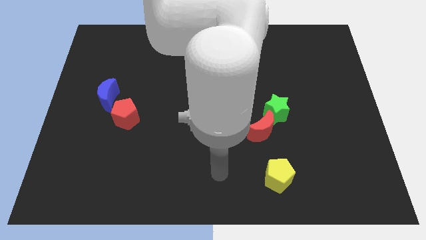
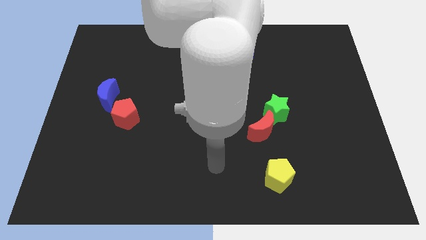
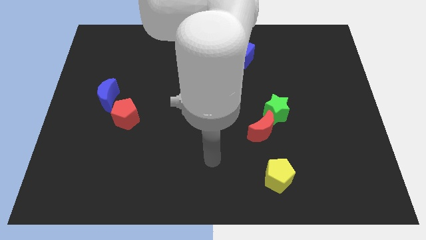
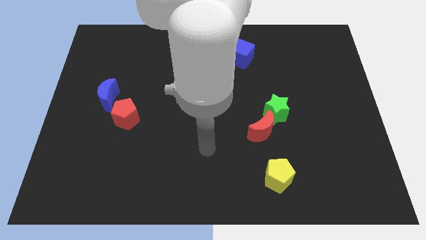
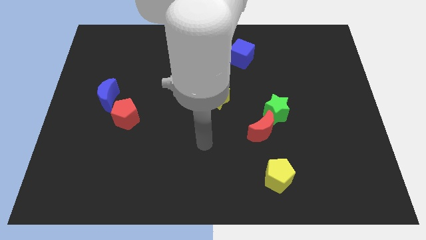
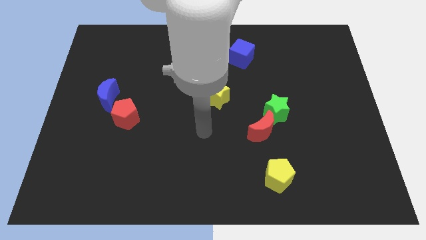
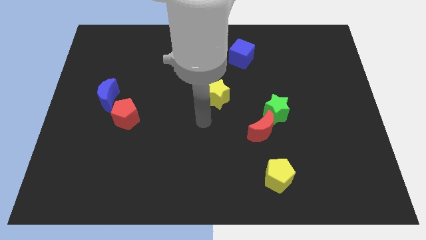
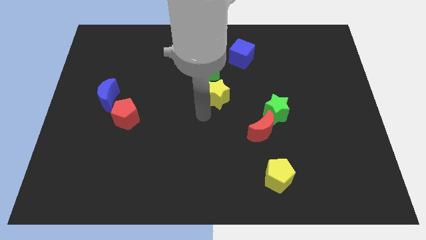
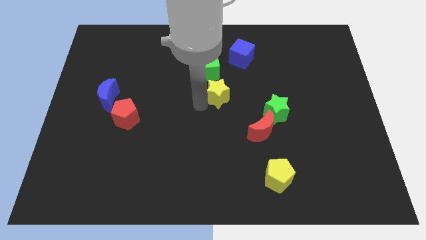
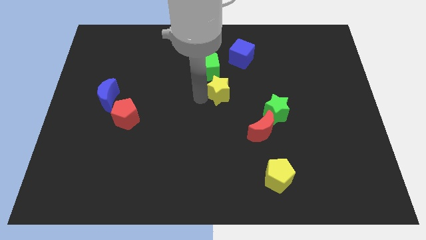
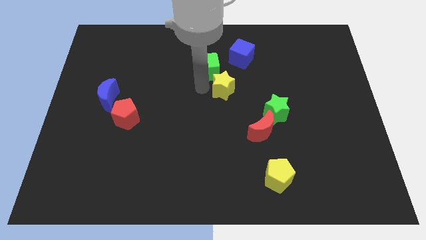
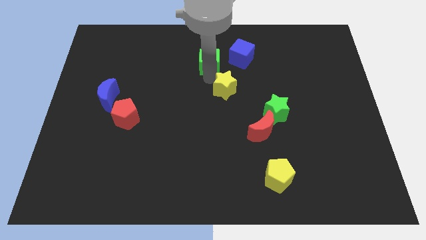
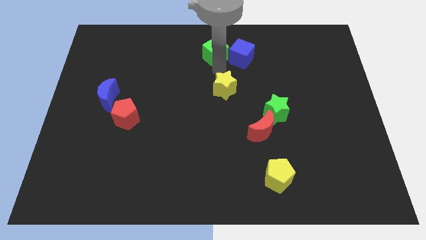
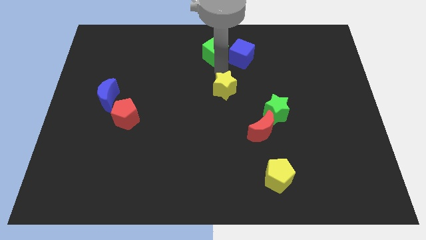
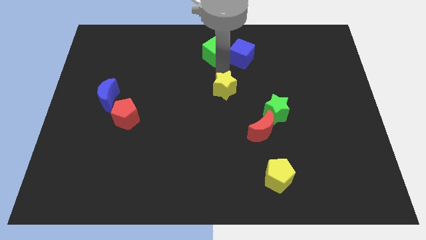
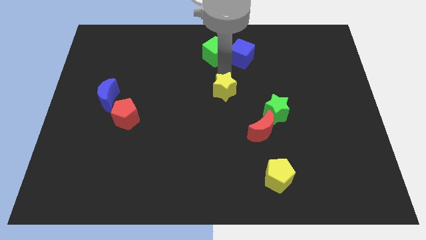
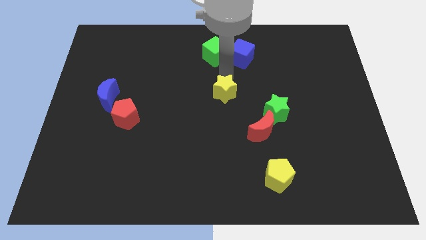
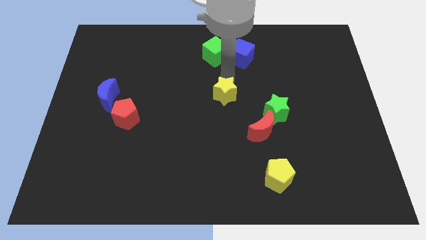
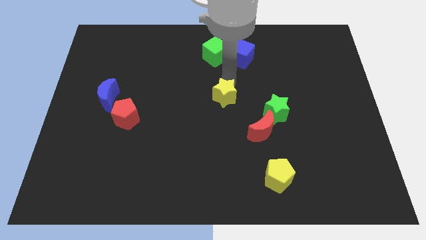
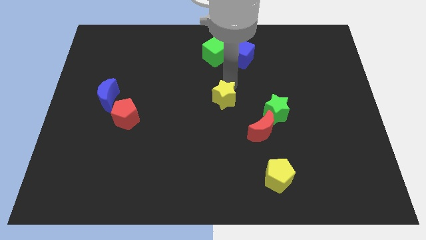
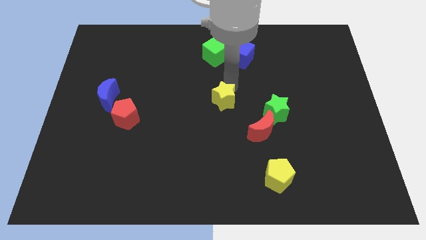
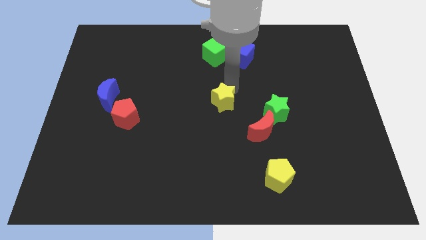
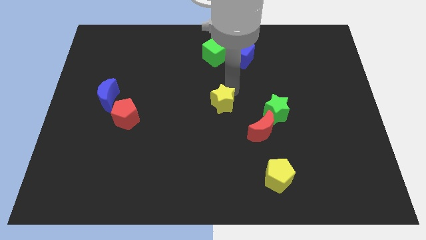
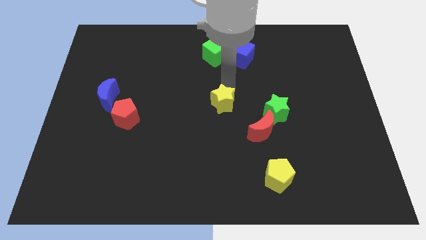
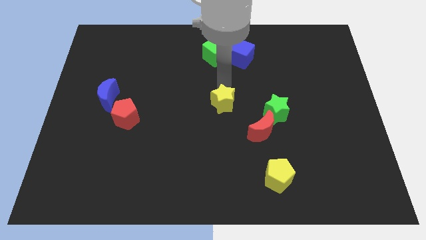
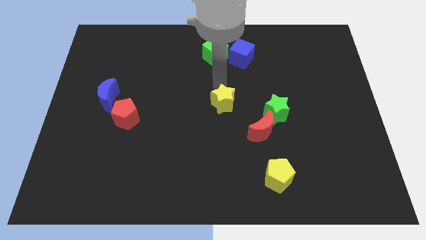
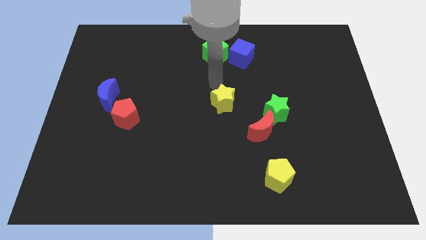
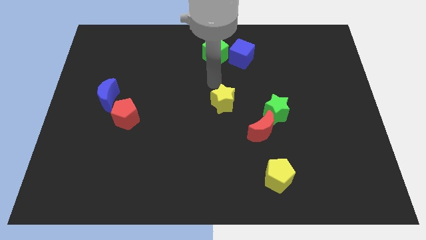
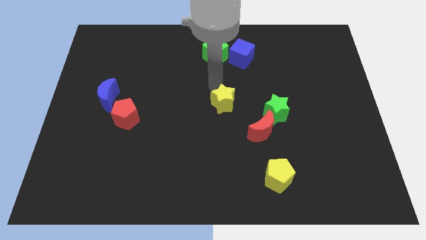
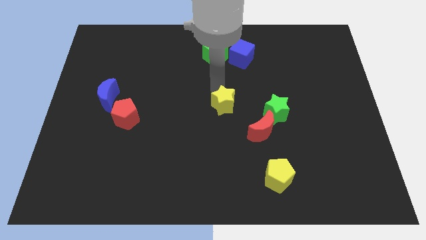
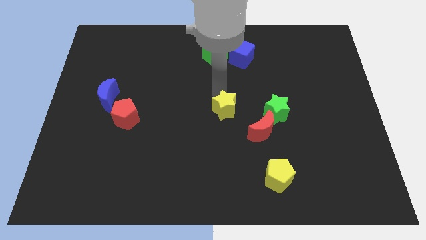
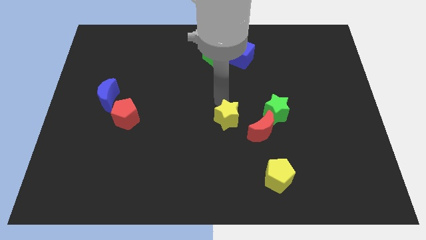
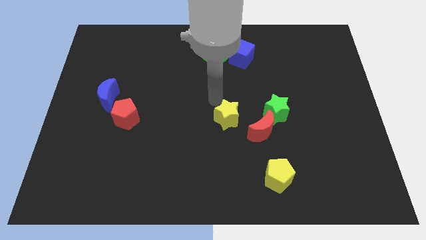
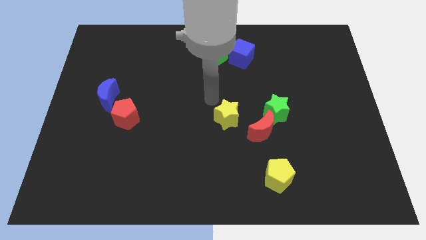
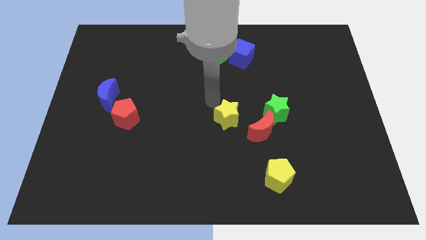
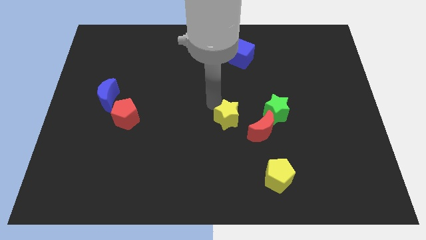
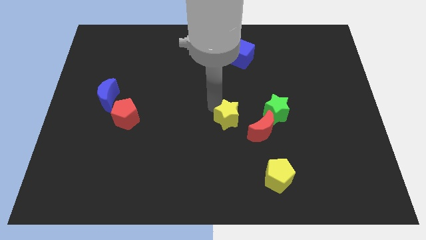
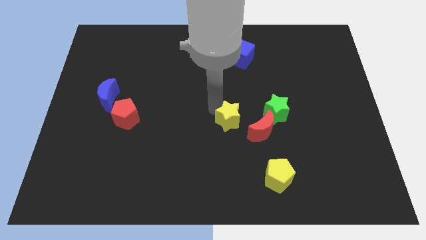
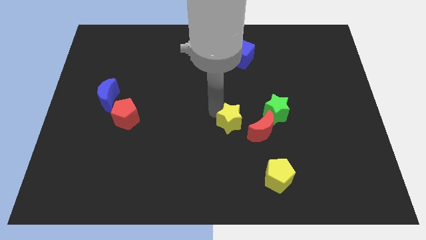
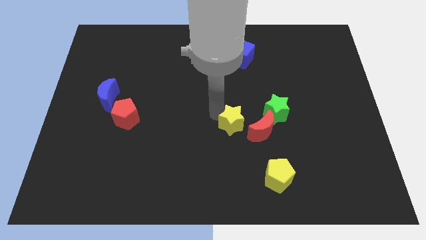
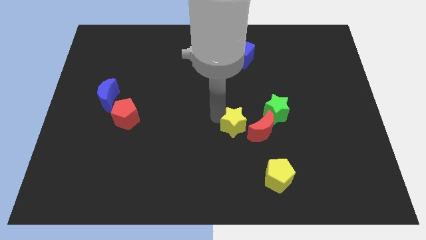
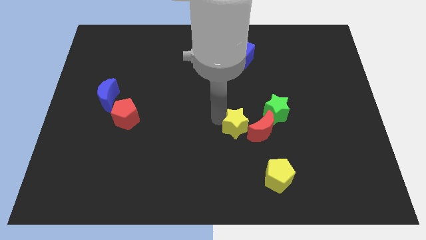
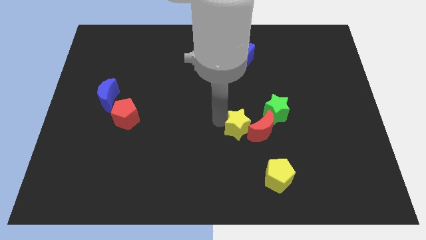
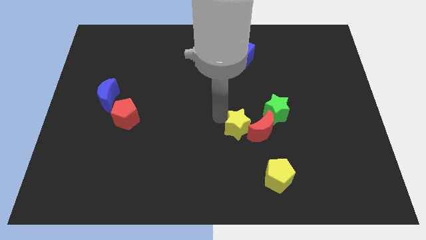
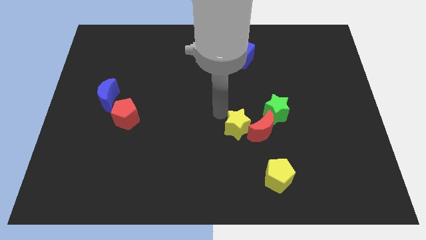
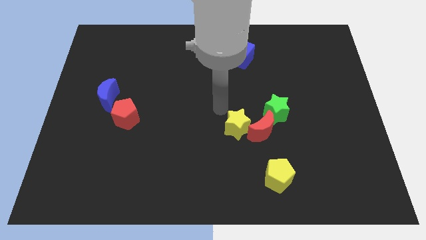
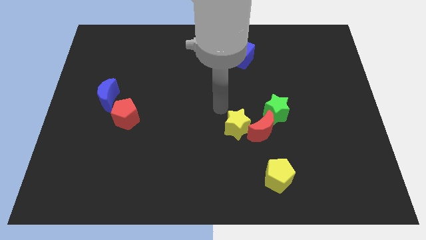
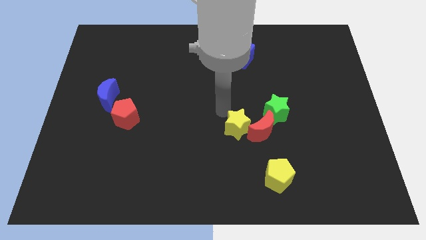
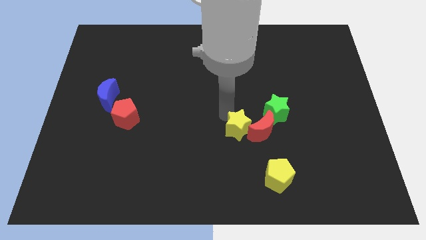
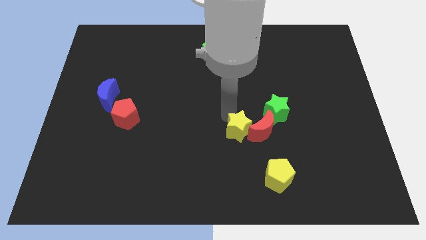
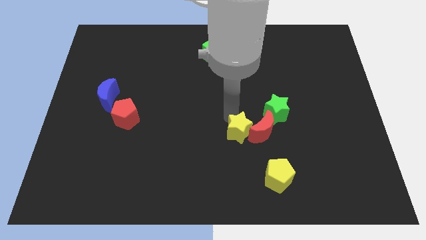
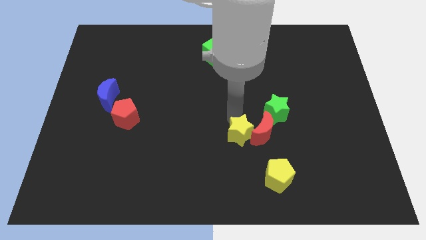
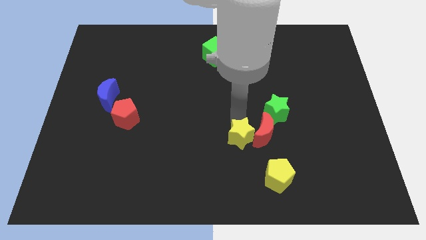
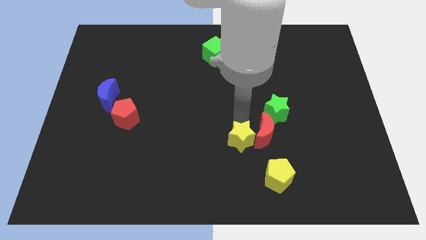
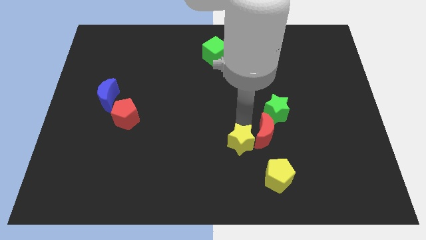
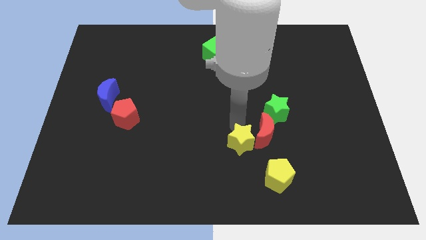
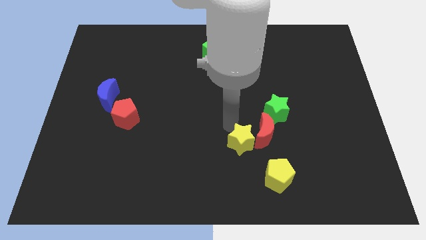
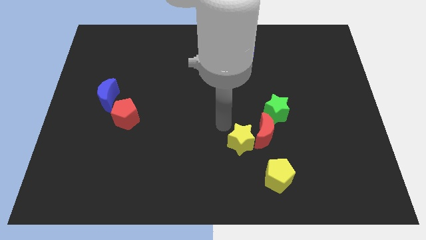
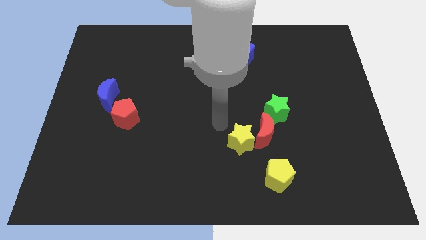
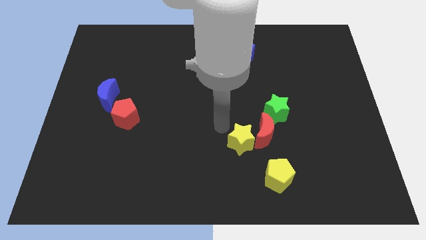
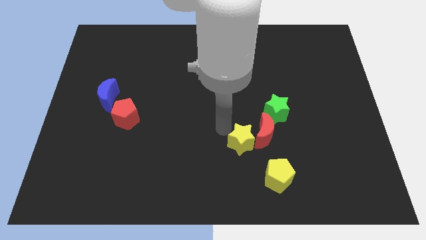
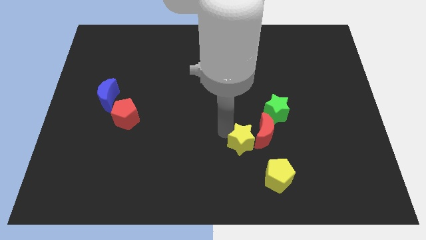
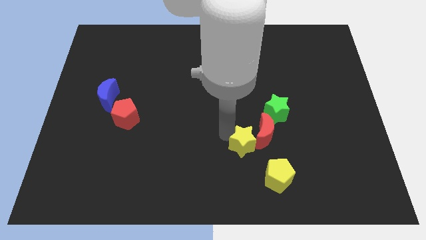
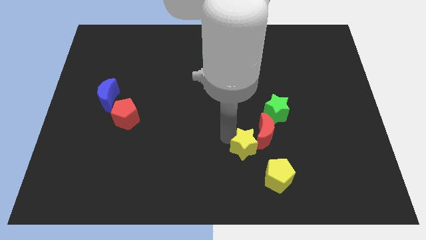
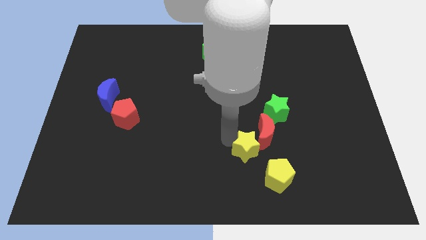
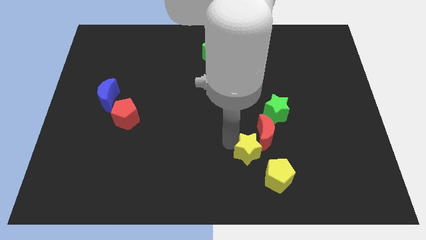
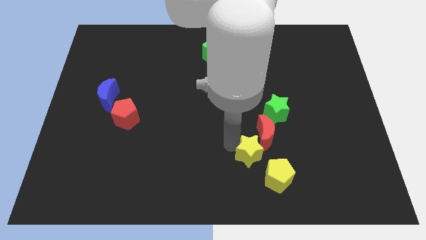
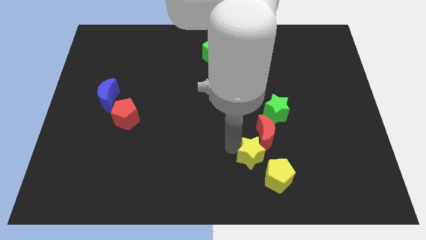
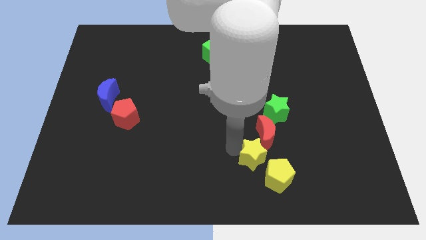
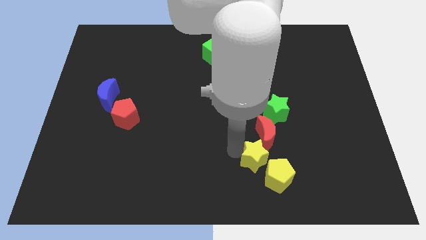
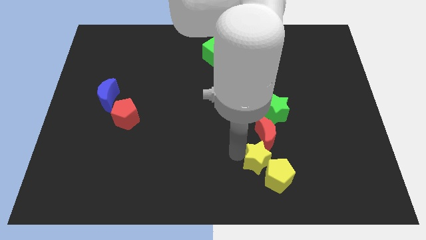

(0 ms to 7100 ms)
slide the yellow star next to the yellow pentagon
